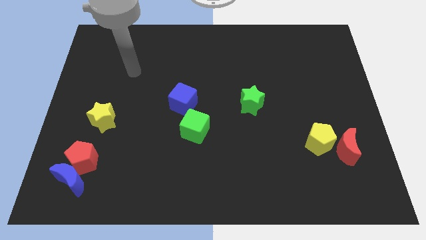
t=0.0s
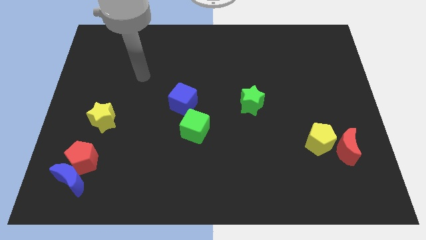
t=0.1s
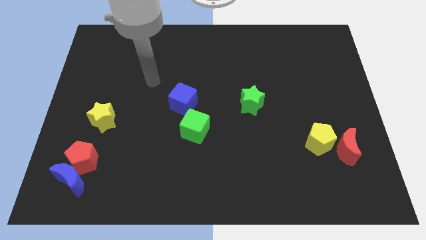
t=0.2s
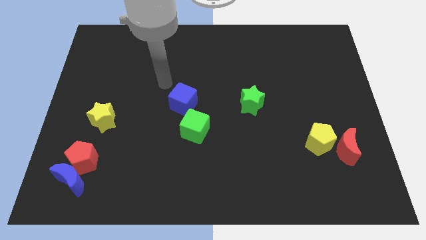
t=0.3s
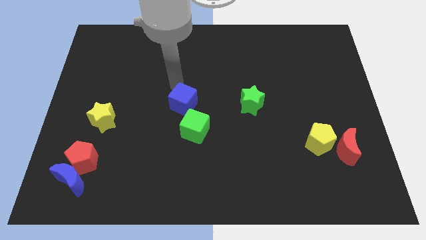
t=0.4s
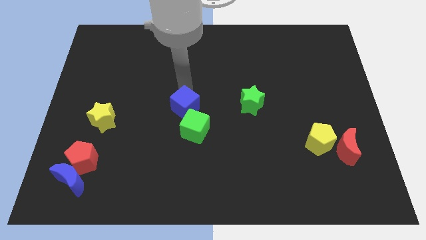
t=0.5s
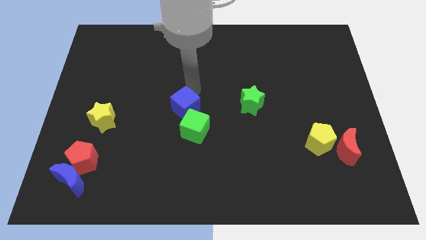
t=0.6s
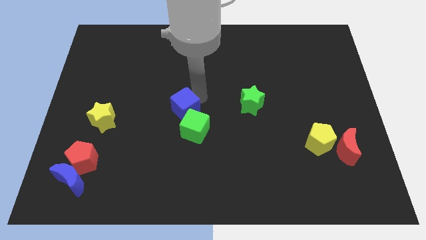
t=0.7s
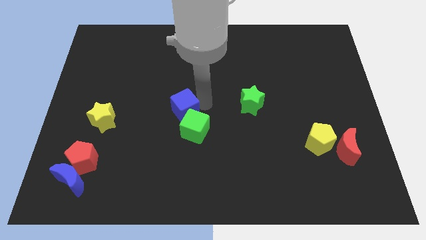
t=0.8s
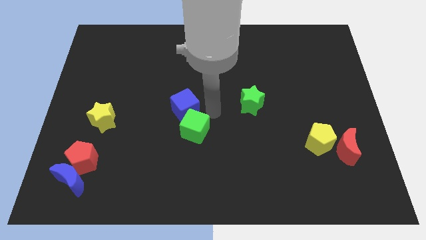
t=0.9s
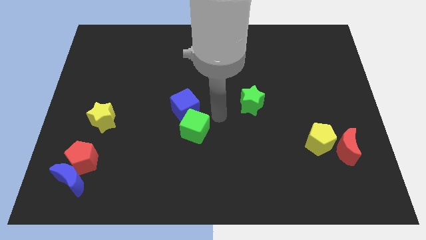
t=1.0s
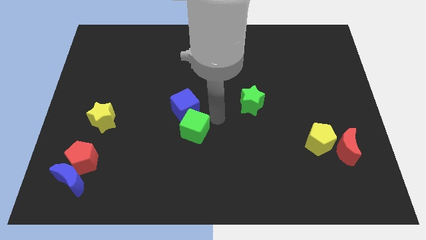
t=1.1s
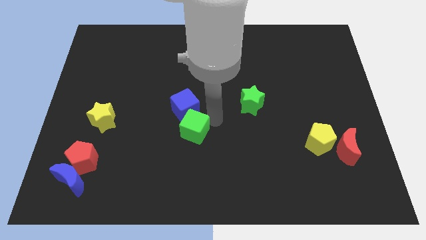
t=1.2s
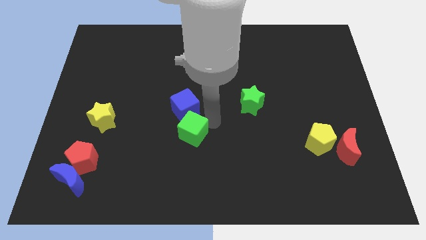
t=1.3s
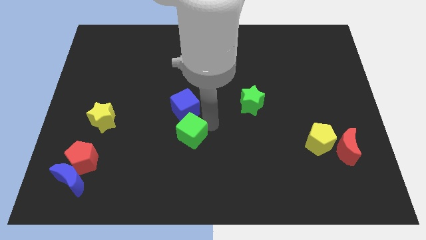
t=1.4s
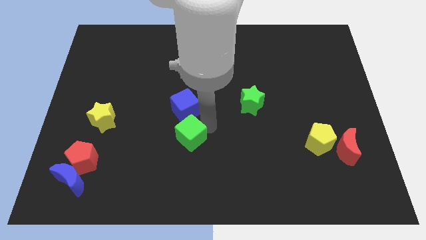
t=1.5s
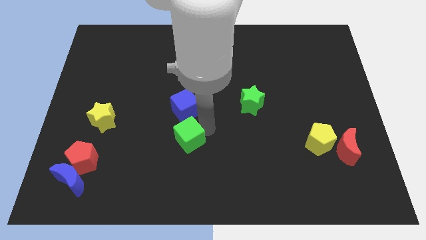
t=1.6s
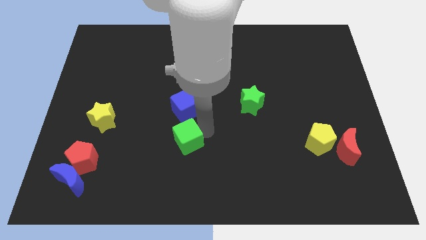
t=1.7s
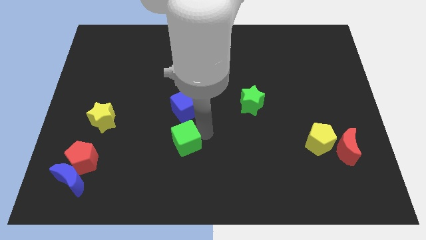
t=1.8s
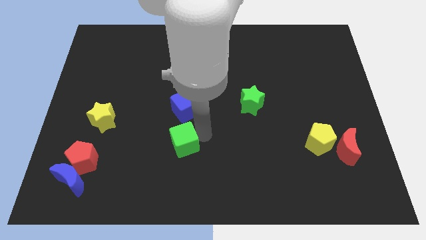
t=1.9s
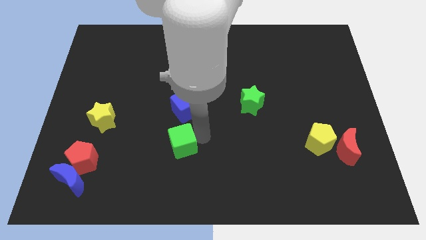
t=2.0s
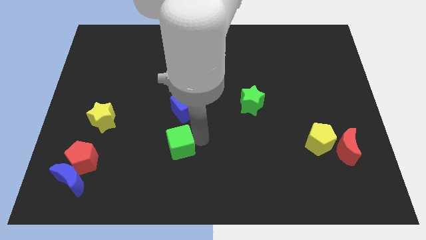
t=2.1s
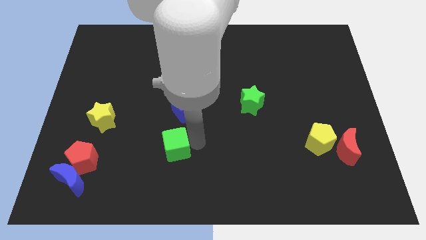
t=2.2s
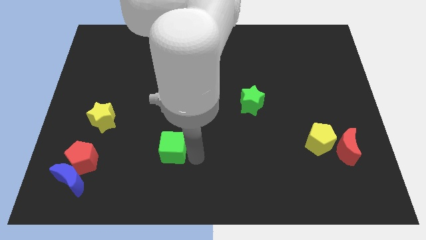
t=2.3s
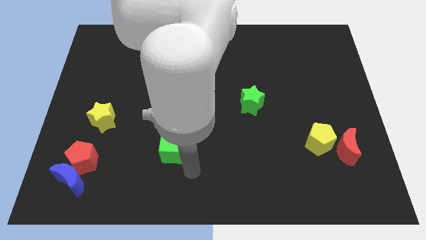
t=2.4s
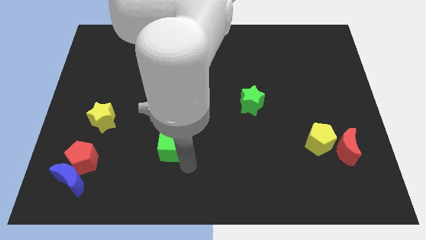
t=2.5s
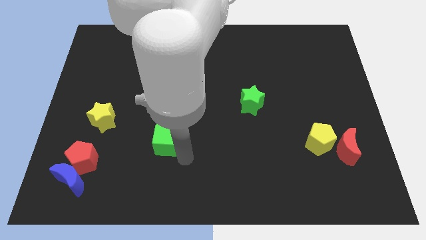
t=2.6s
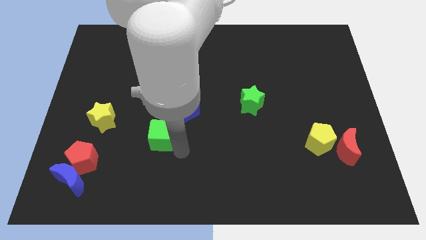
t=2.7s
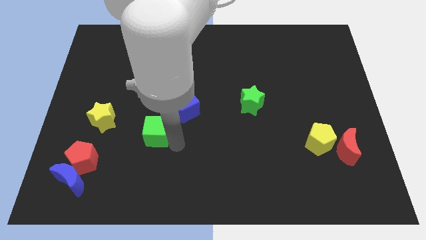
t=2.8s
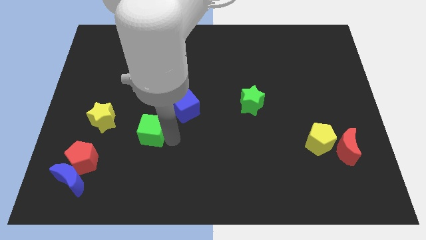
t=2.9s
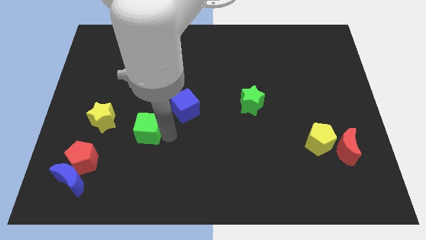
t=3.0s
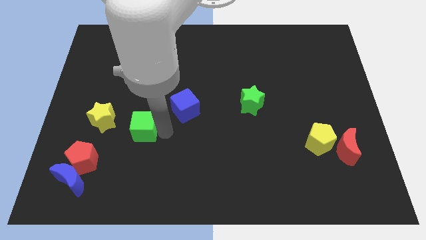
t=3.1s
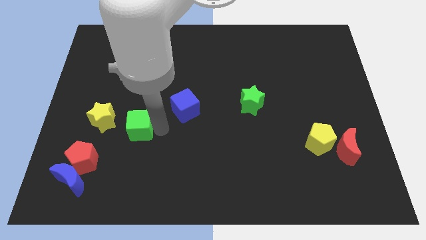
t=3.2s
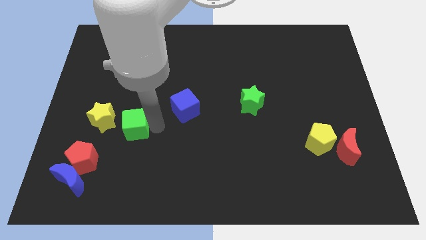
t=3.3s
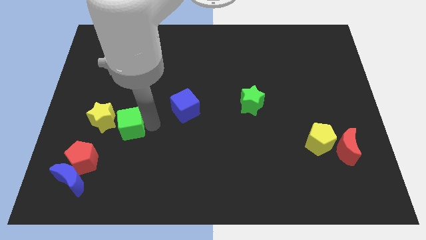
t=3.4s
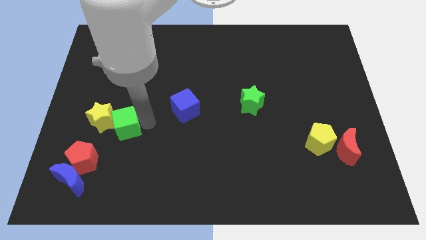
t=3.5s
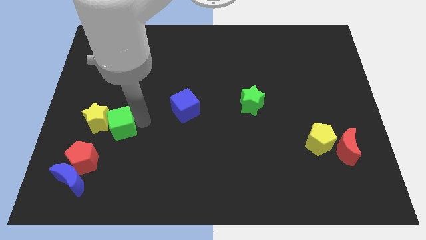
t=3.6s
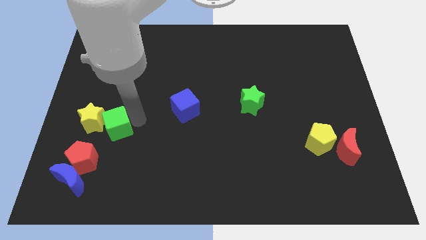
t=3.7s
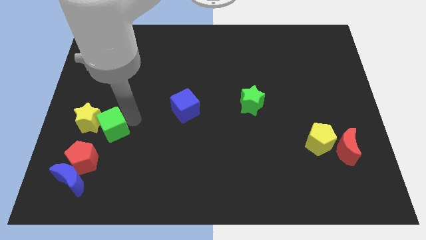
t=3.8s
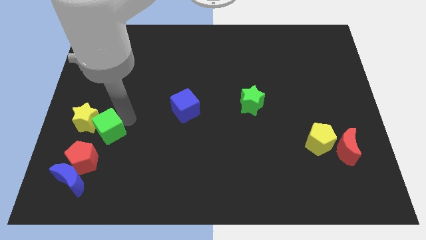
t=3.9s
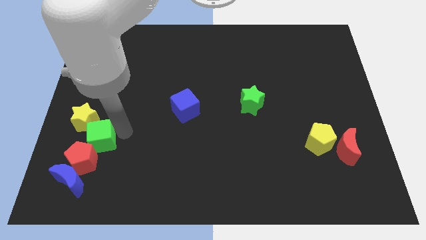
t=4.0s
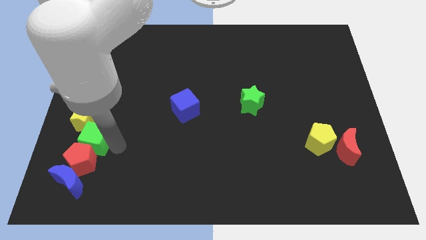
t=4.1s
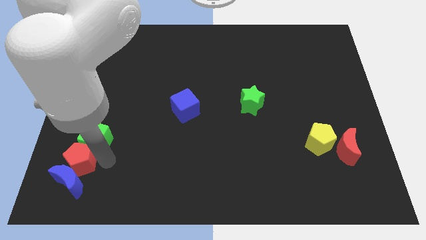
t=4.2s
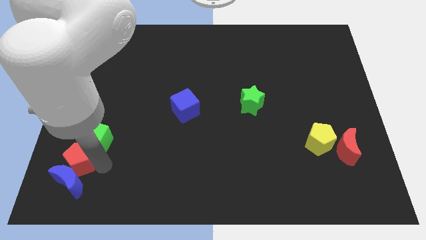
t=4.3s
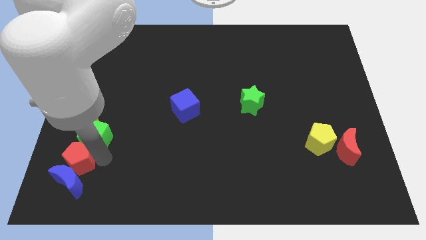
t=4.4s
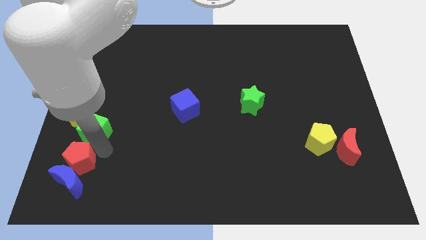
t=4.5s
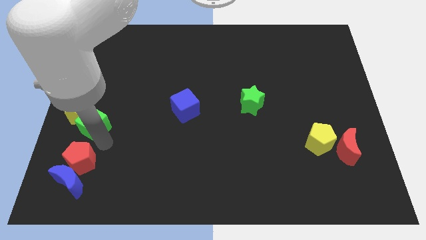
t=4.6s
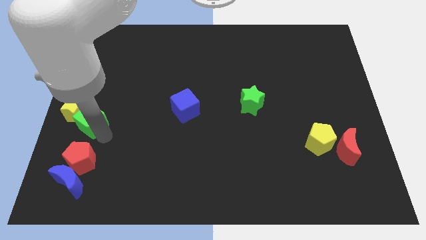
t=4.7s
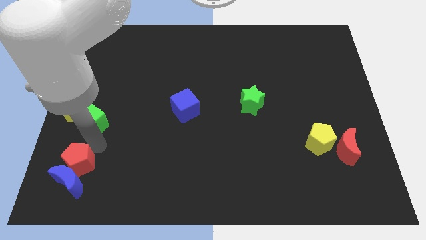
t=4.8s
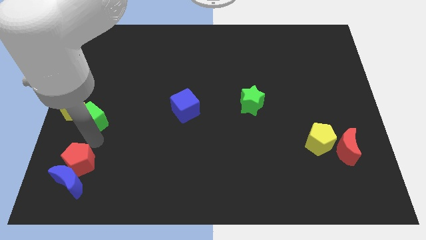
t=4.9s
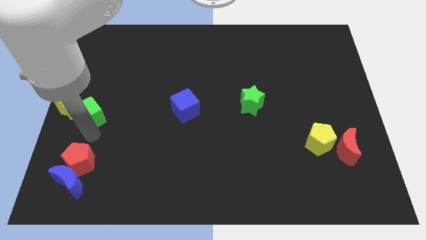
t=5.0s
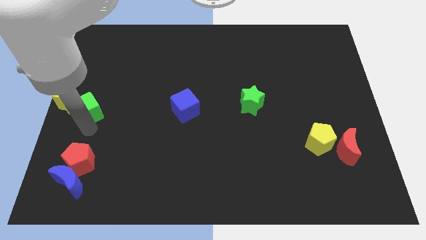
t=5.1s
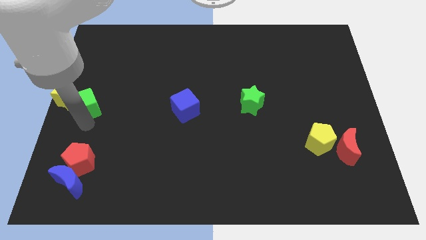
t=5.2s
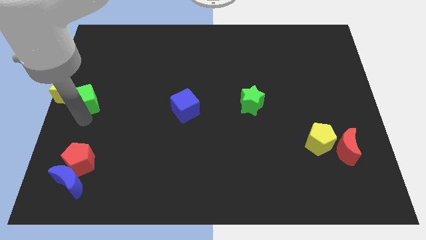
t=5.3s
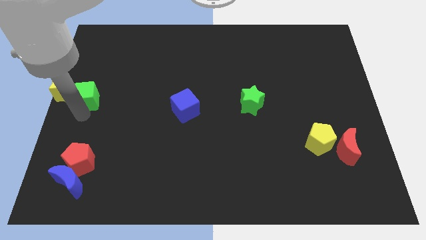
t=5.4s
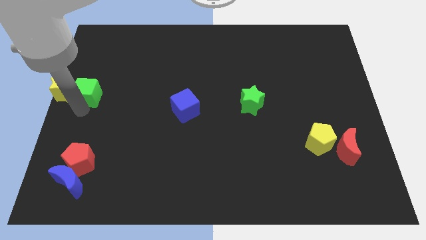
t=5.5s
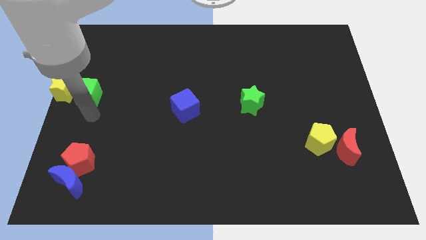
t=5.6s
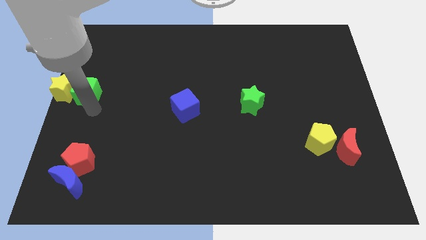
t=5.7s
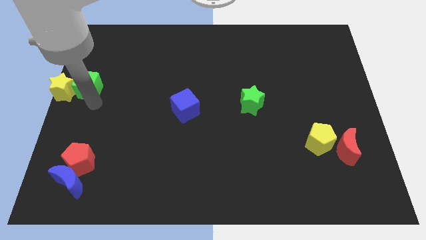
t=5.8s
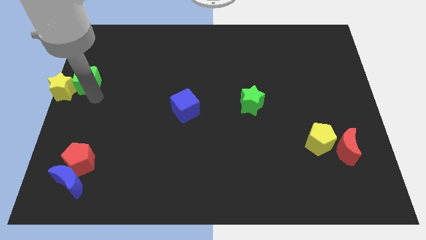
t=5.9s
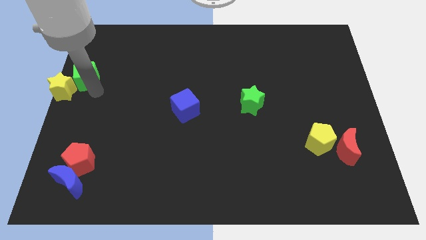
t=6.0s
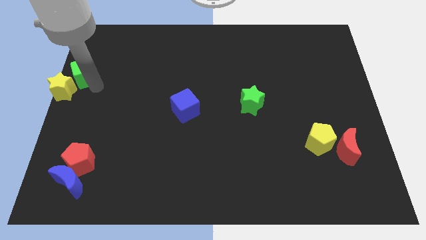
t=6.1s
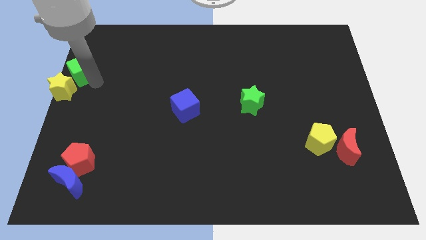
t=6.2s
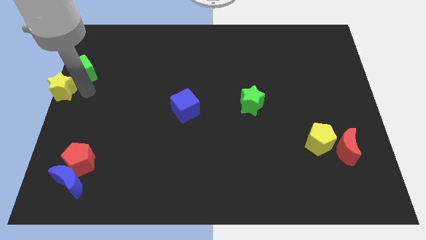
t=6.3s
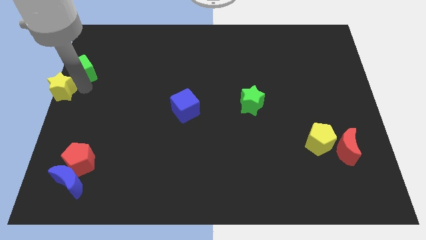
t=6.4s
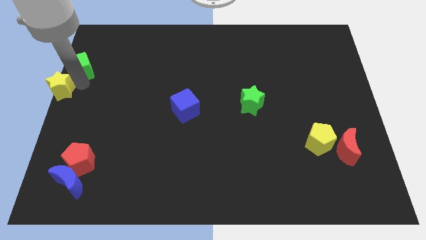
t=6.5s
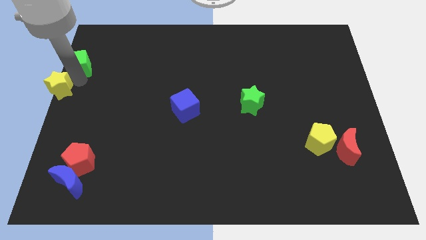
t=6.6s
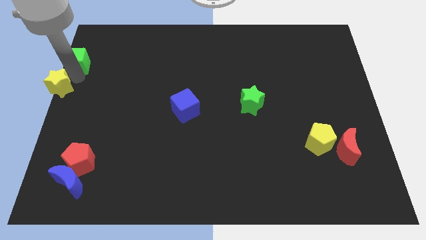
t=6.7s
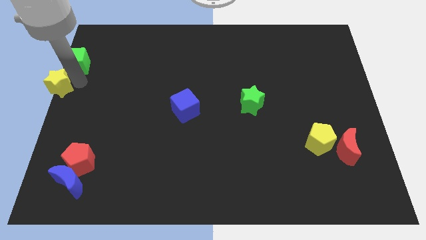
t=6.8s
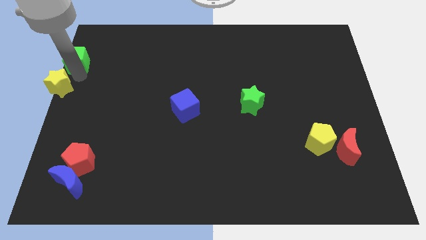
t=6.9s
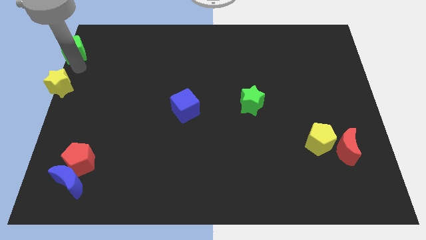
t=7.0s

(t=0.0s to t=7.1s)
slide the green cube to the top left
